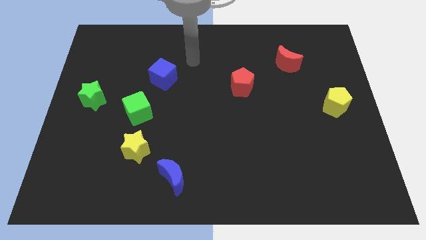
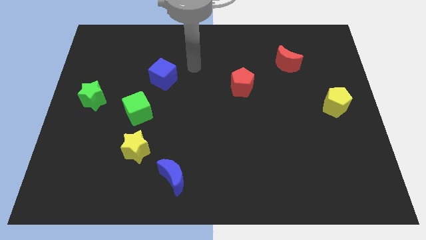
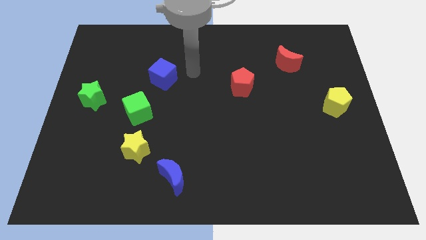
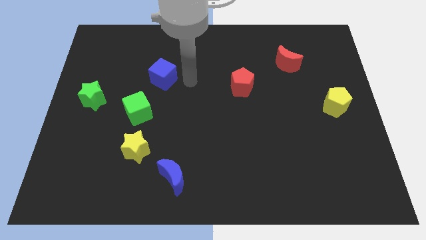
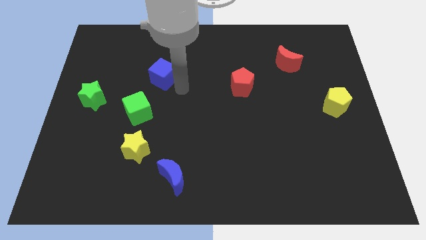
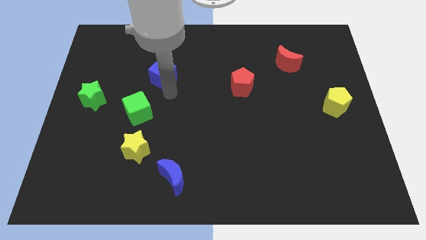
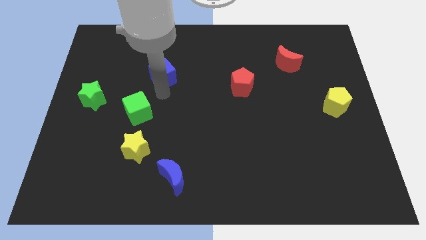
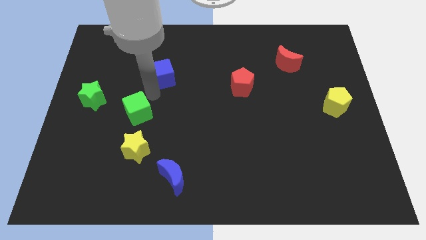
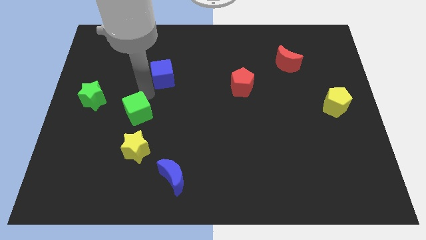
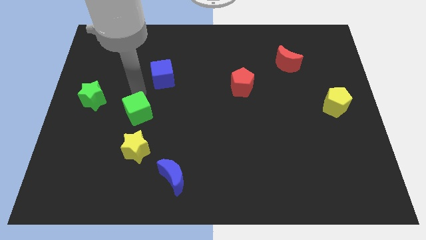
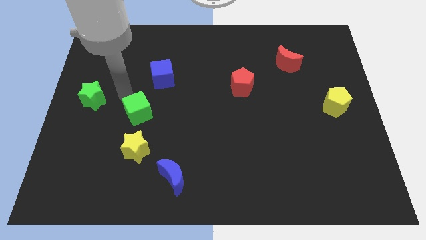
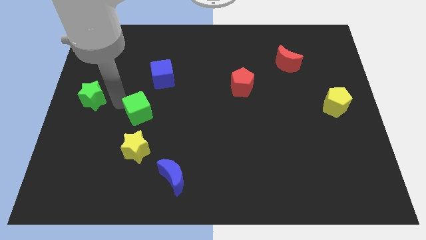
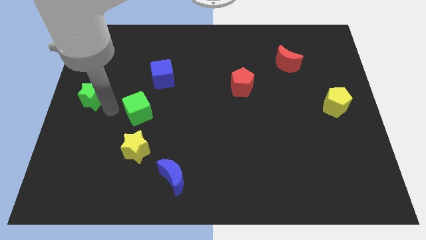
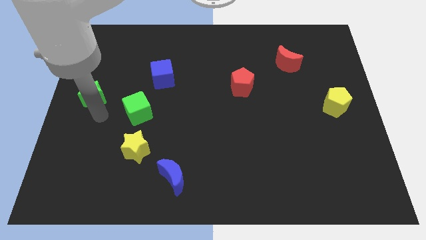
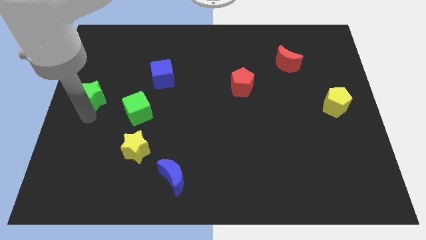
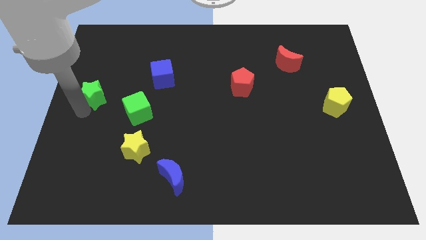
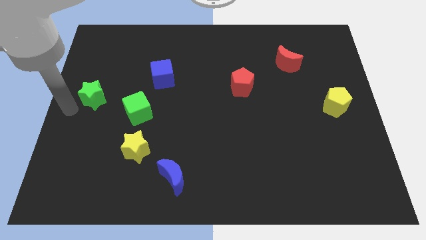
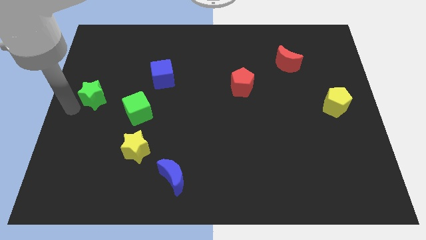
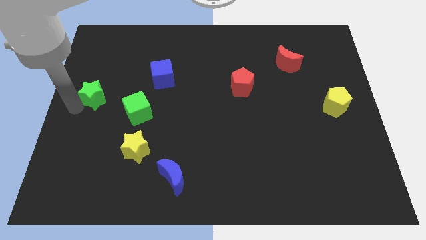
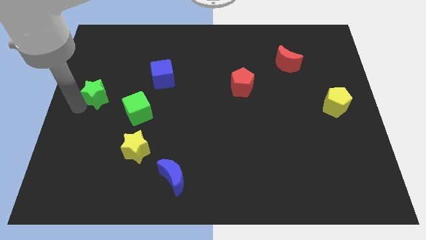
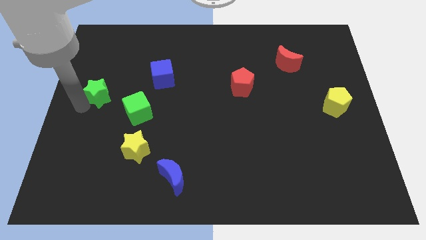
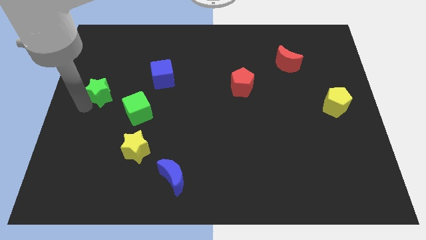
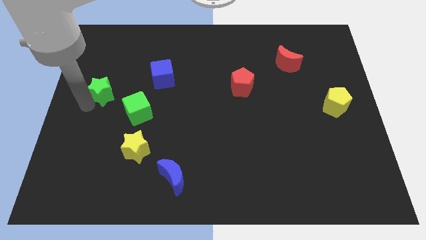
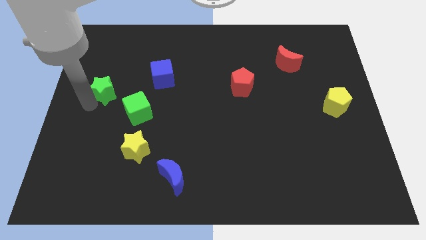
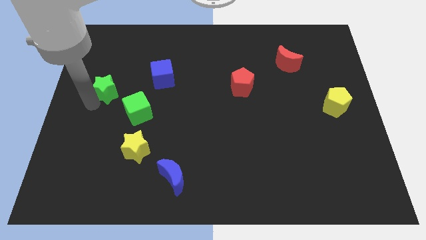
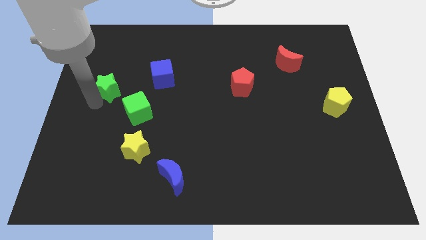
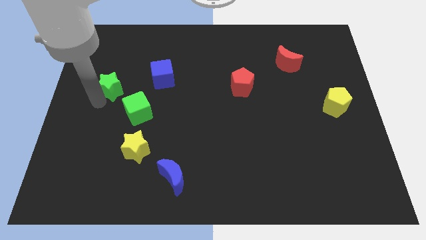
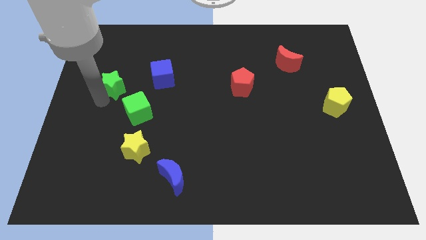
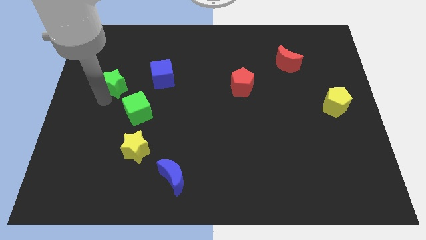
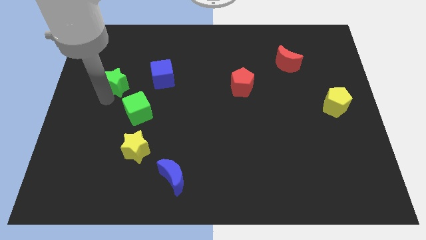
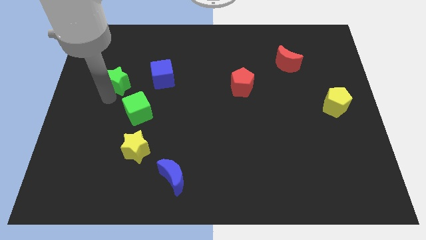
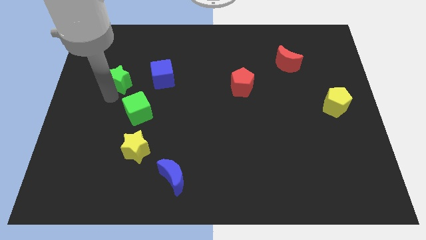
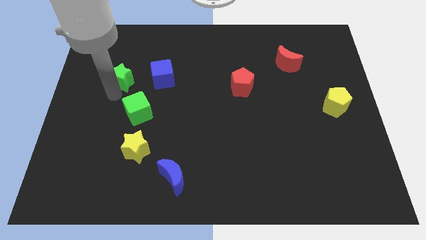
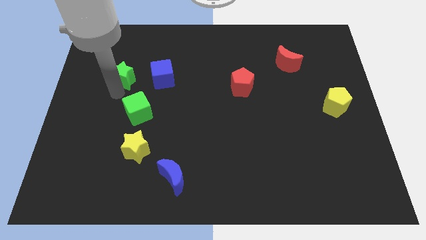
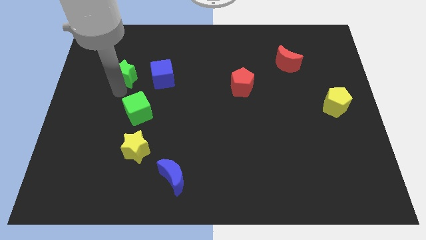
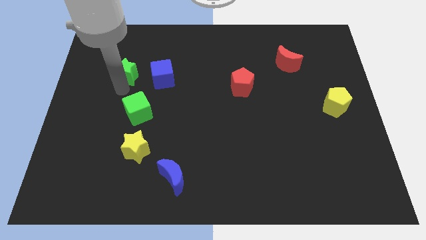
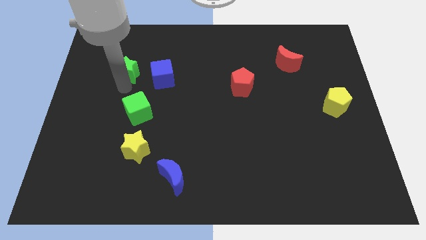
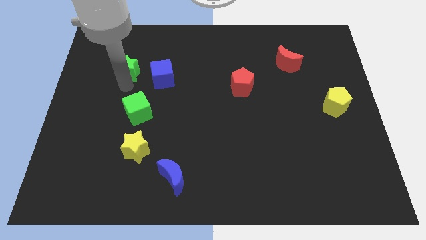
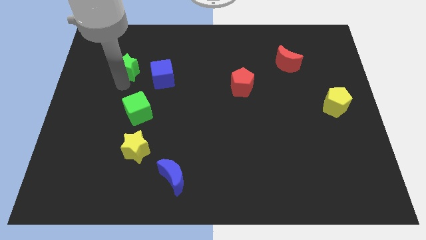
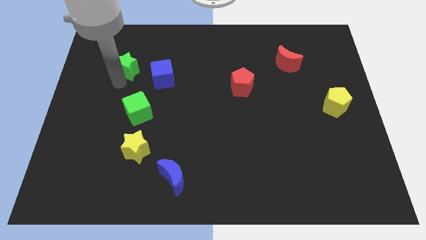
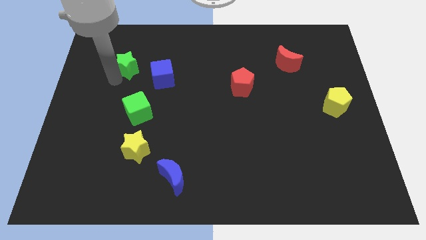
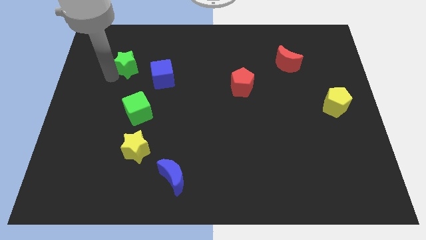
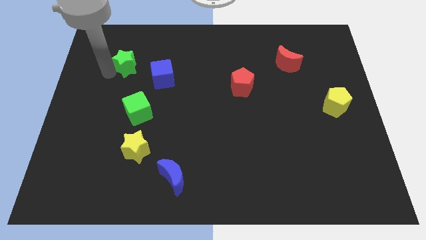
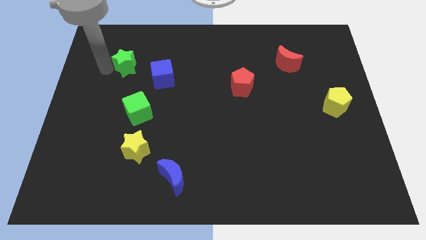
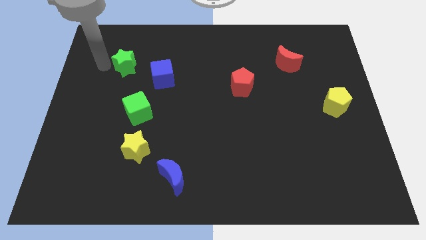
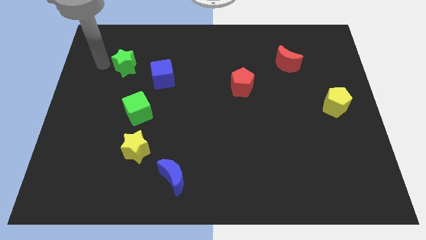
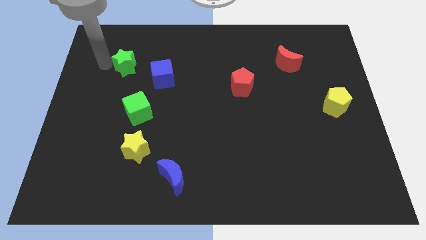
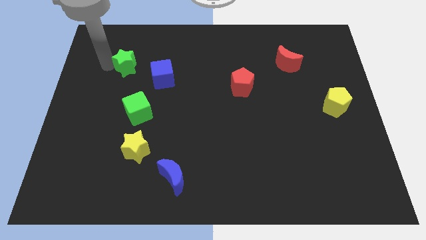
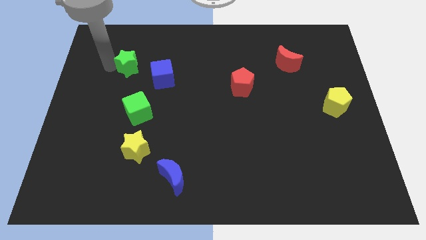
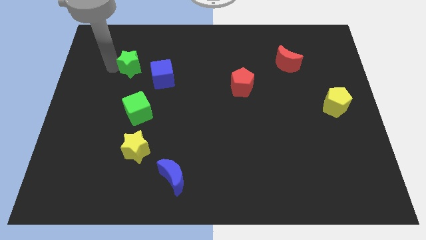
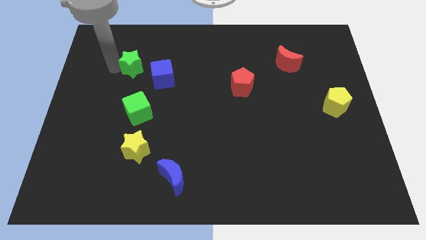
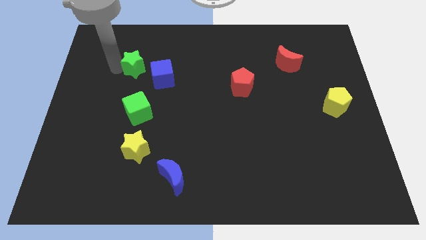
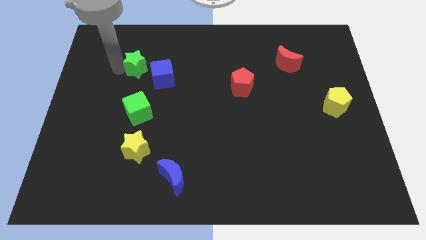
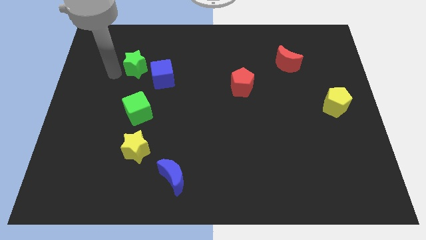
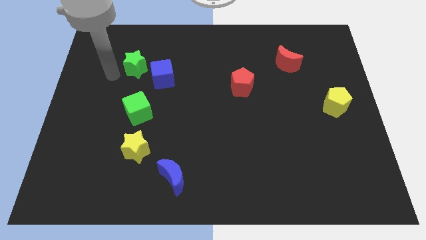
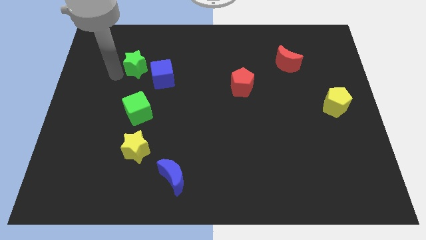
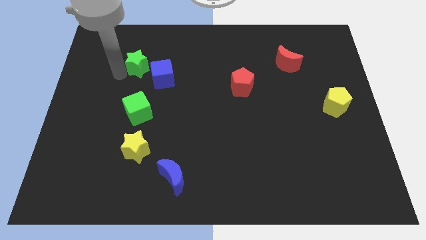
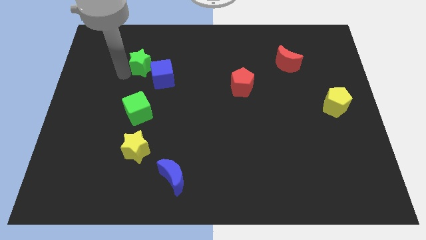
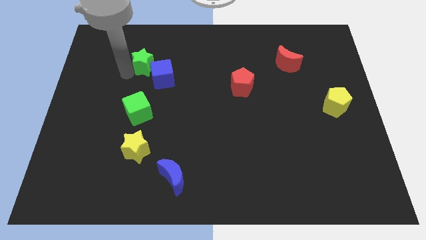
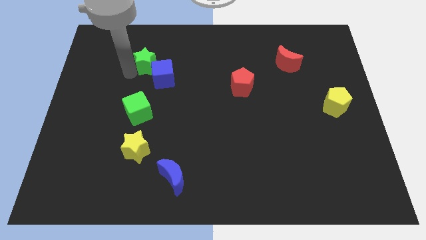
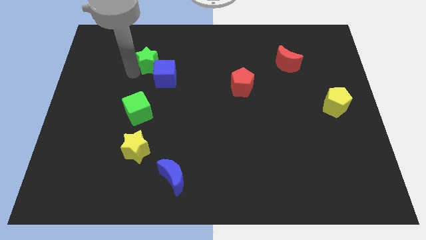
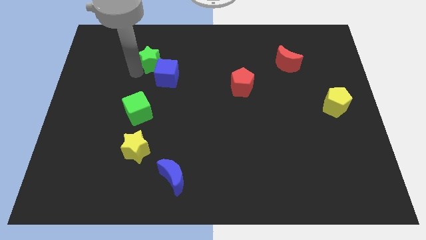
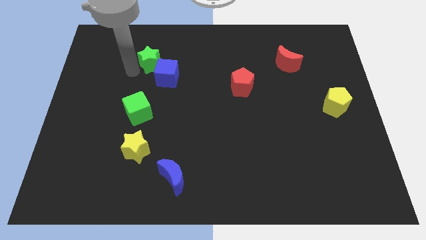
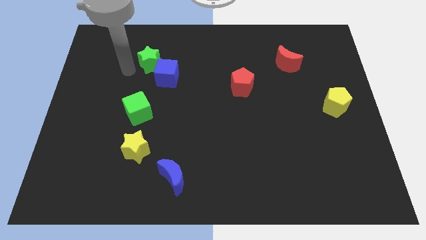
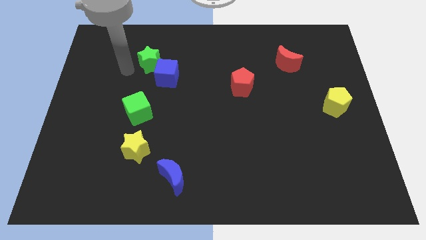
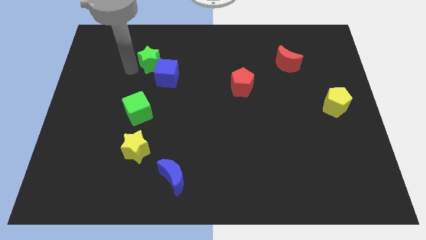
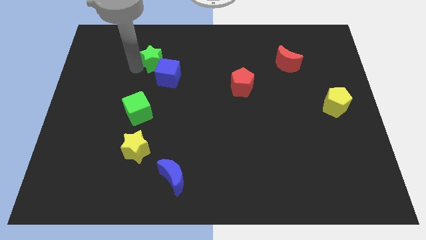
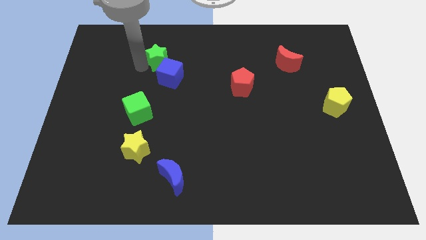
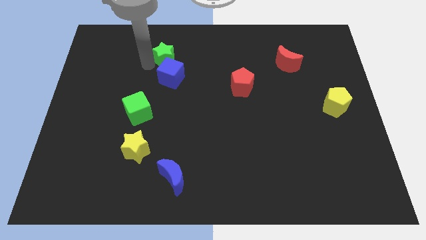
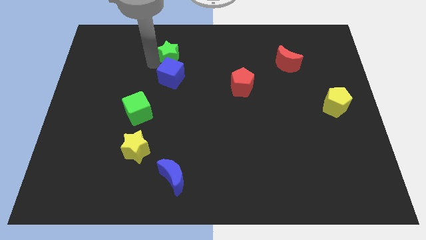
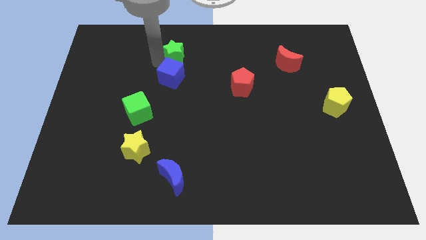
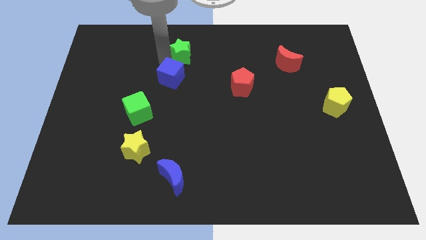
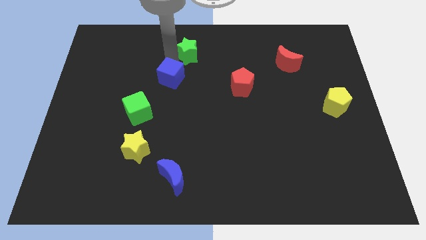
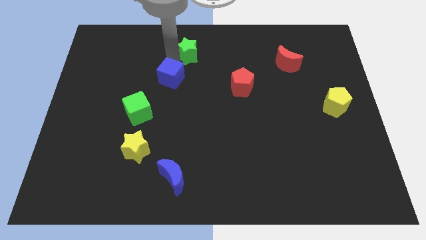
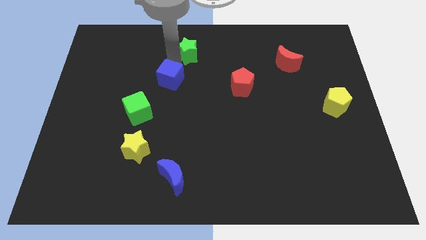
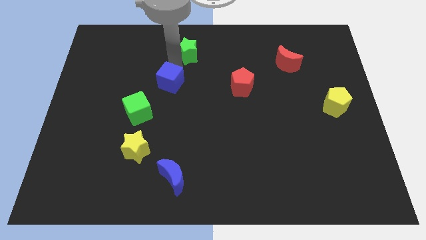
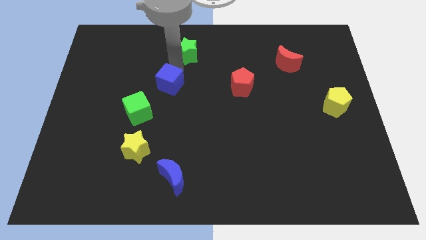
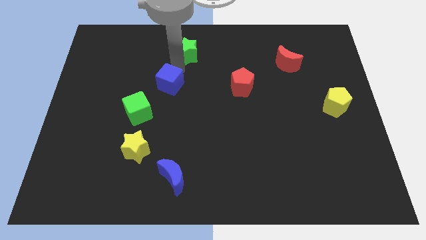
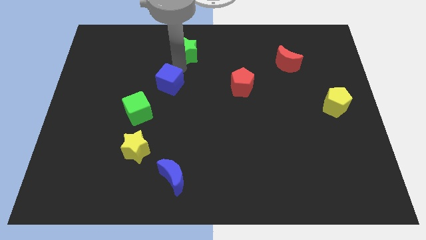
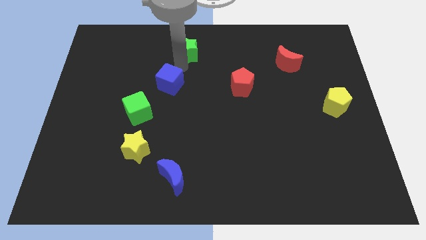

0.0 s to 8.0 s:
slide the green star to the top side
